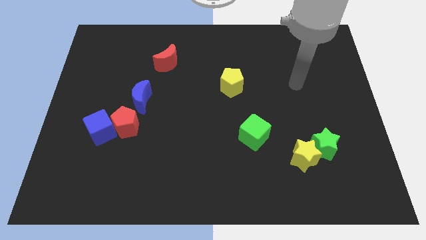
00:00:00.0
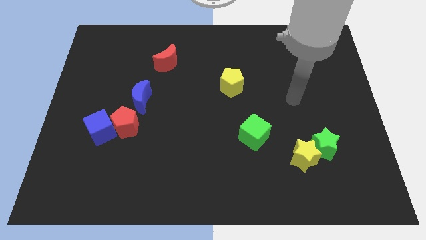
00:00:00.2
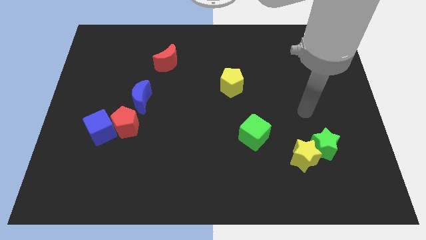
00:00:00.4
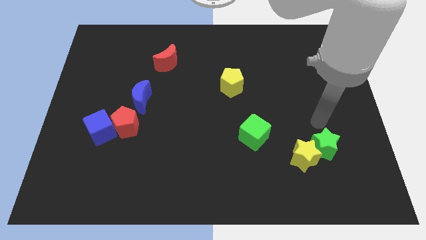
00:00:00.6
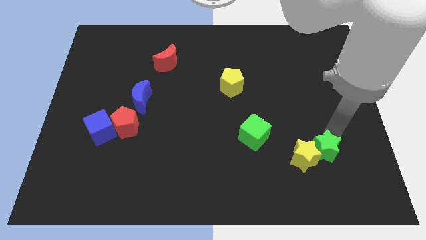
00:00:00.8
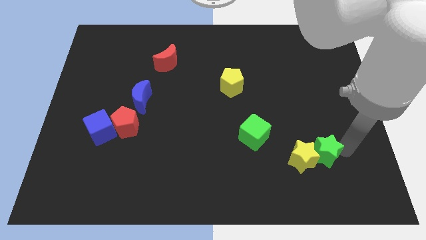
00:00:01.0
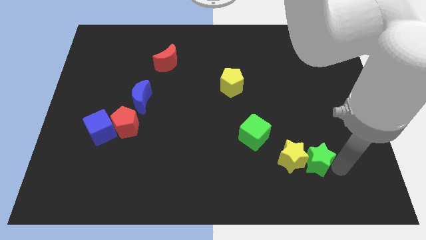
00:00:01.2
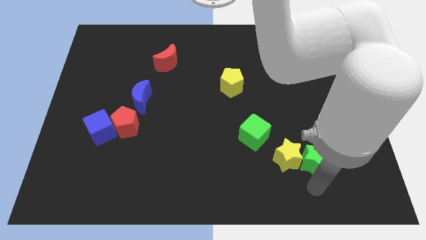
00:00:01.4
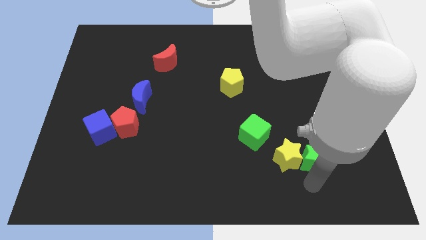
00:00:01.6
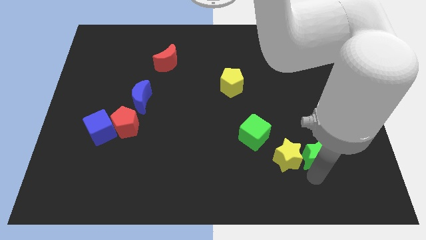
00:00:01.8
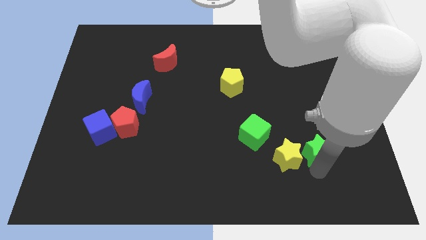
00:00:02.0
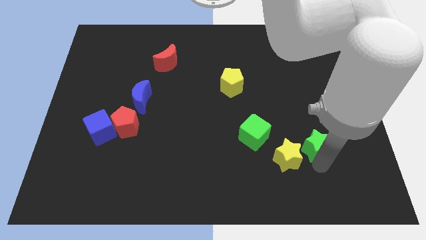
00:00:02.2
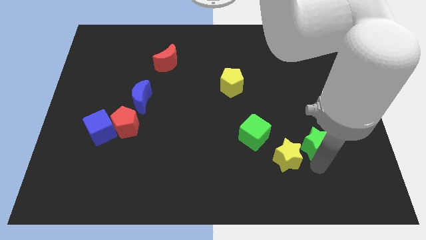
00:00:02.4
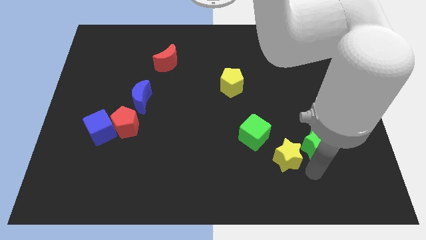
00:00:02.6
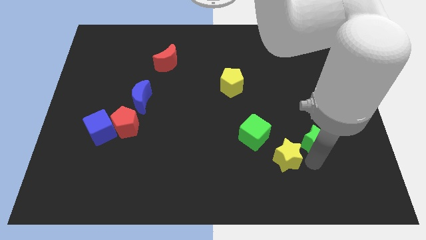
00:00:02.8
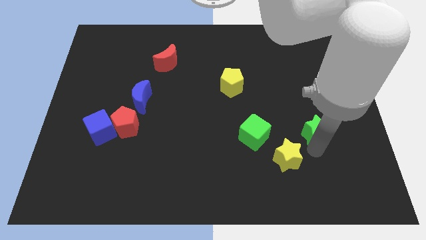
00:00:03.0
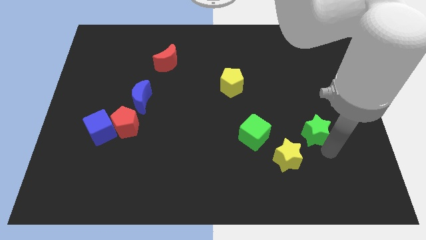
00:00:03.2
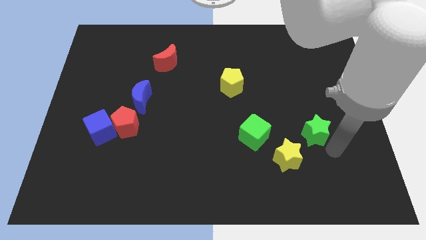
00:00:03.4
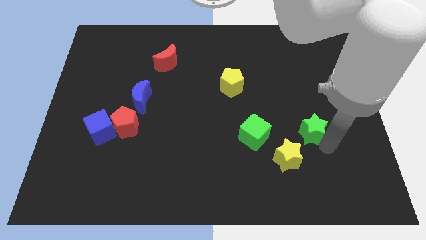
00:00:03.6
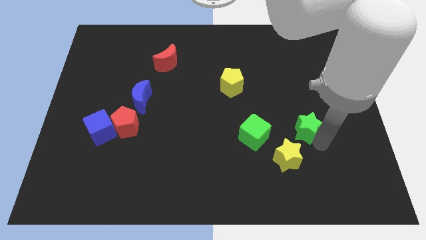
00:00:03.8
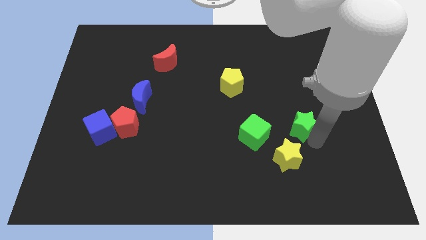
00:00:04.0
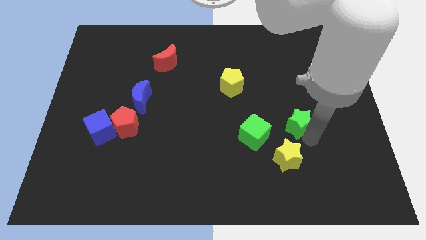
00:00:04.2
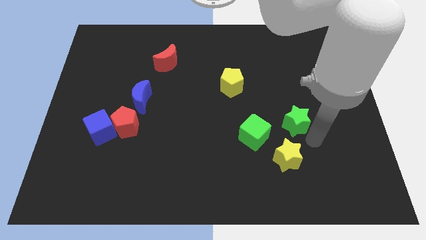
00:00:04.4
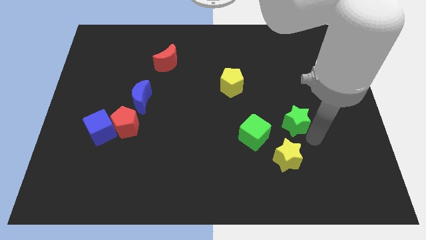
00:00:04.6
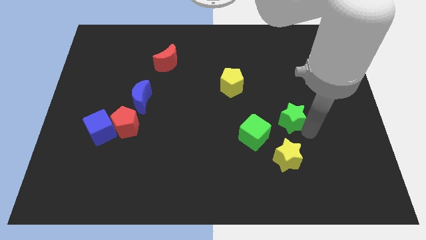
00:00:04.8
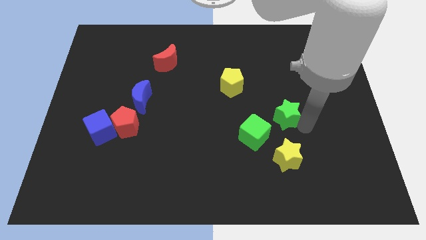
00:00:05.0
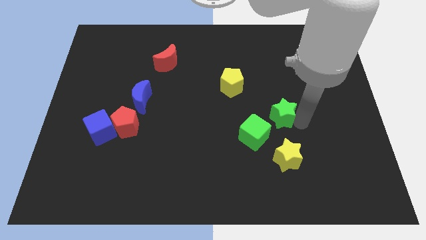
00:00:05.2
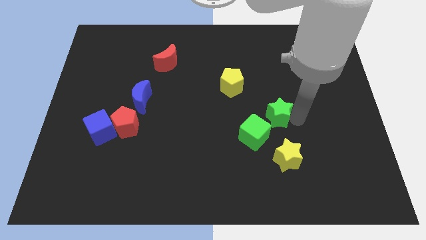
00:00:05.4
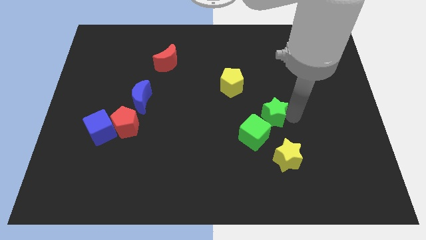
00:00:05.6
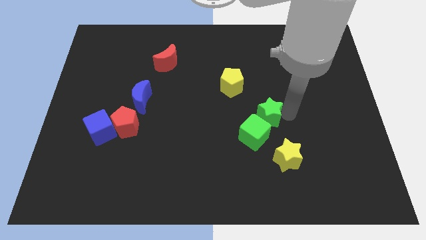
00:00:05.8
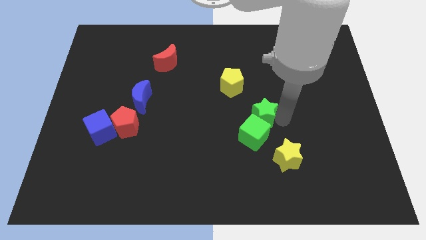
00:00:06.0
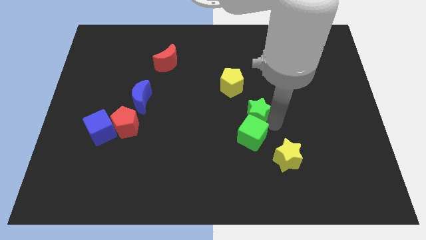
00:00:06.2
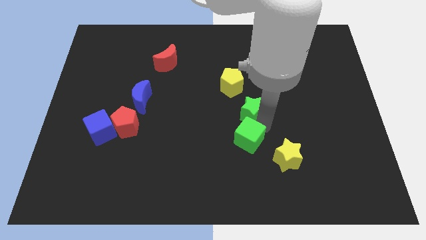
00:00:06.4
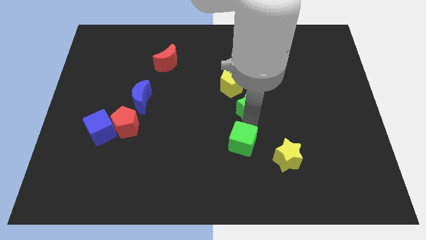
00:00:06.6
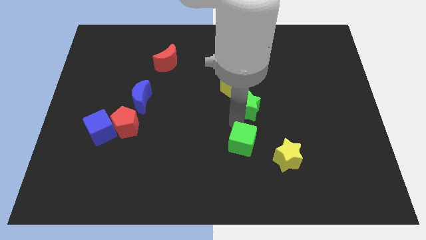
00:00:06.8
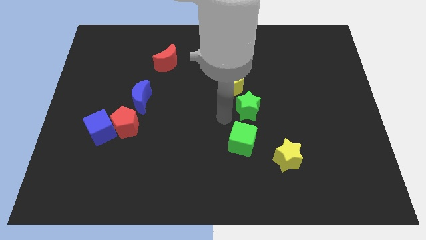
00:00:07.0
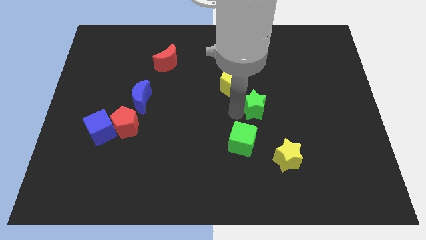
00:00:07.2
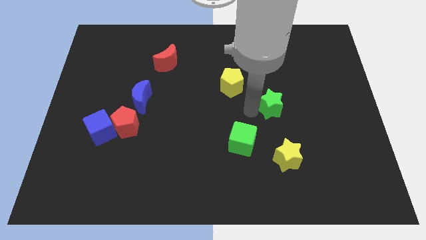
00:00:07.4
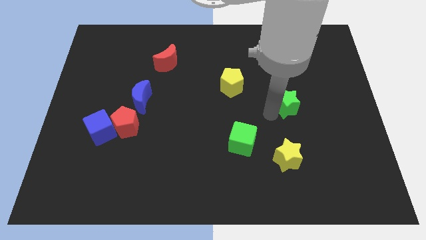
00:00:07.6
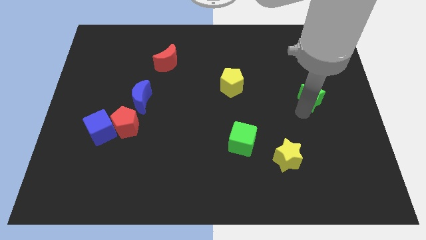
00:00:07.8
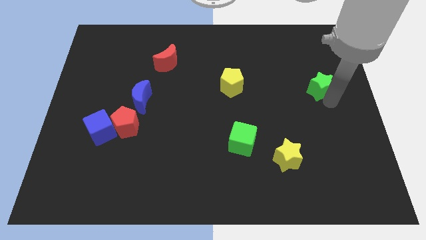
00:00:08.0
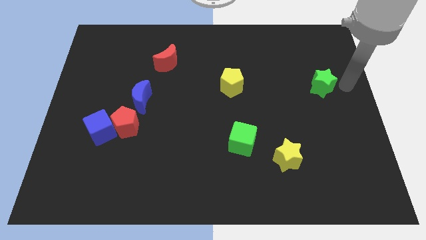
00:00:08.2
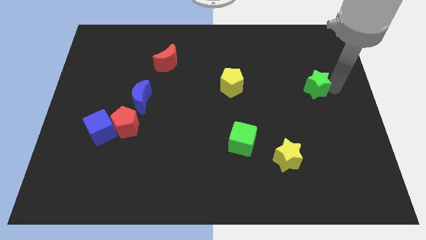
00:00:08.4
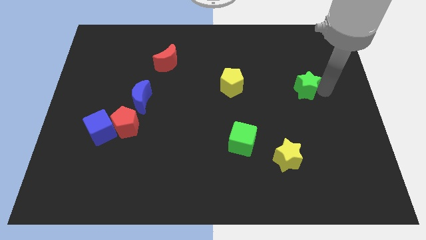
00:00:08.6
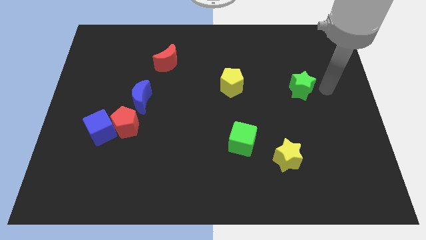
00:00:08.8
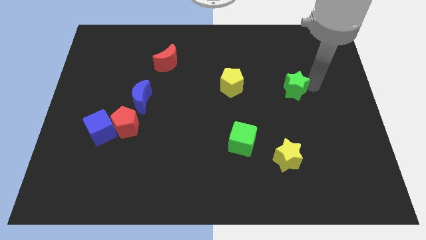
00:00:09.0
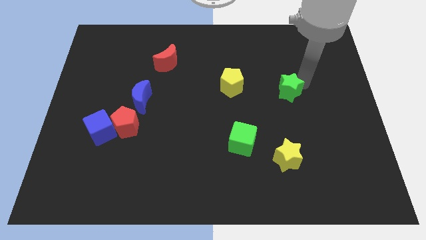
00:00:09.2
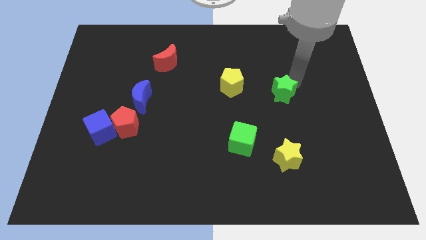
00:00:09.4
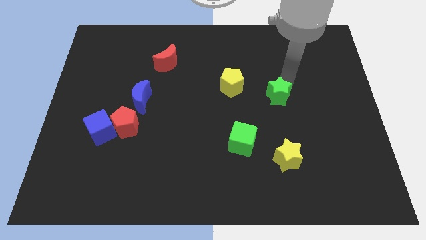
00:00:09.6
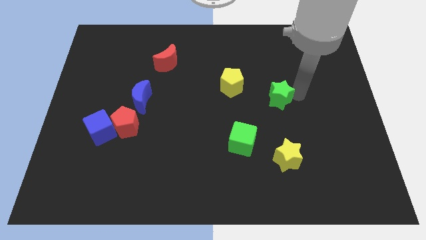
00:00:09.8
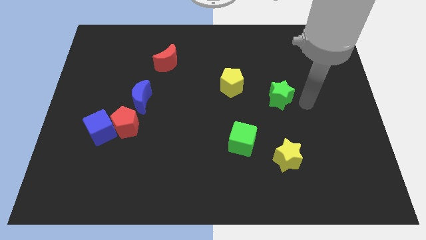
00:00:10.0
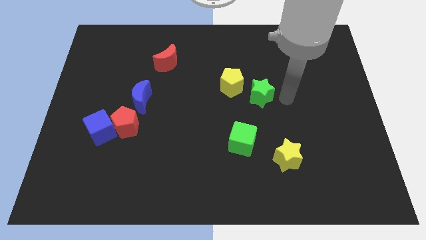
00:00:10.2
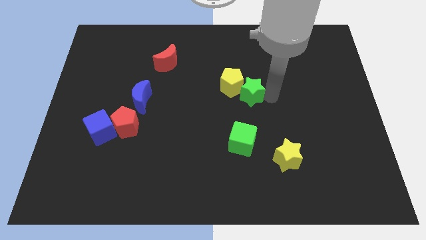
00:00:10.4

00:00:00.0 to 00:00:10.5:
put the green star towards the yellow pentagon

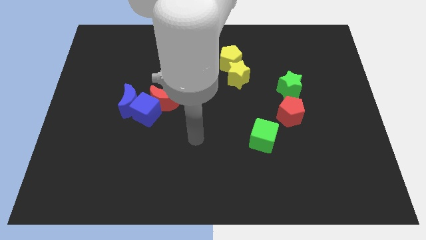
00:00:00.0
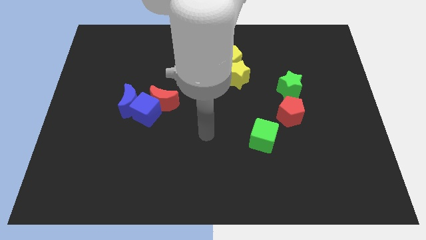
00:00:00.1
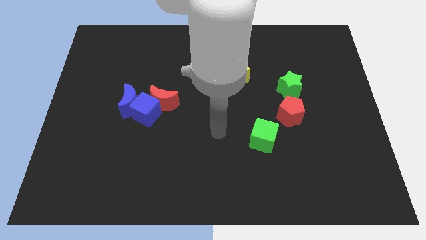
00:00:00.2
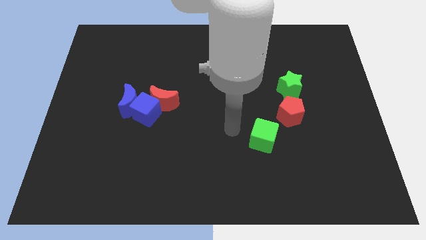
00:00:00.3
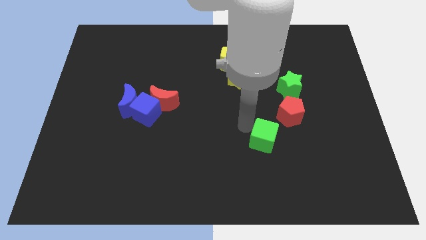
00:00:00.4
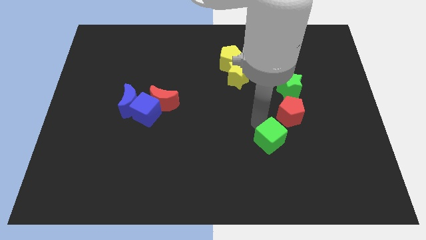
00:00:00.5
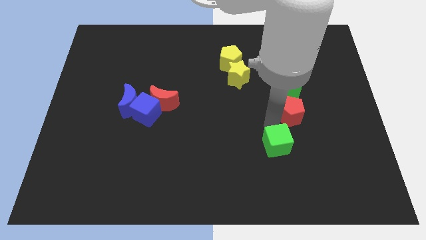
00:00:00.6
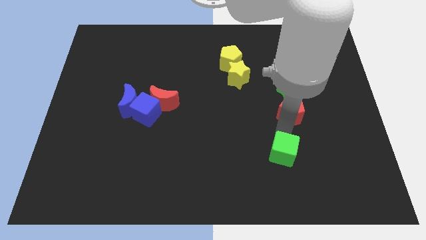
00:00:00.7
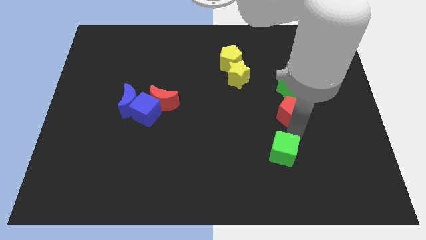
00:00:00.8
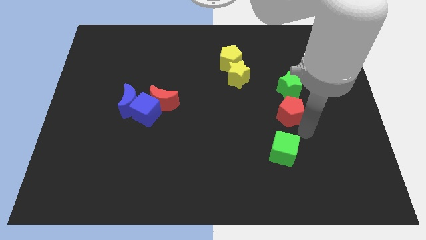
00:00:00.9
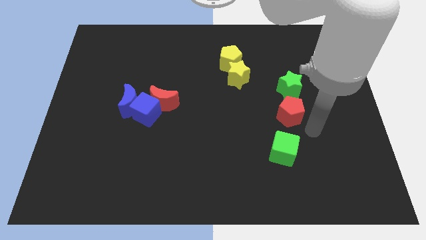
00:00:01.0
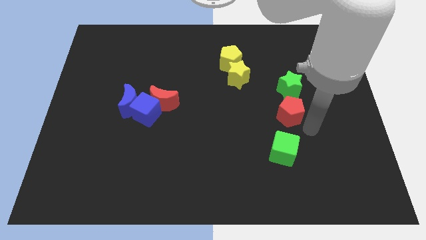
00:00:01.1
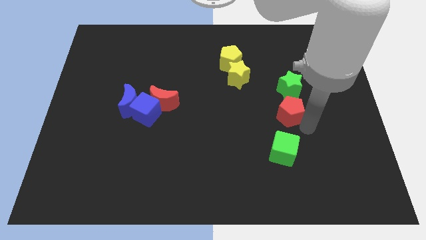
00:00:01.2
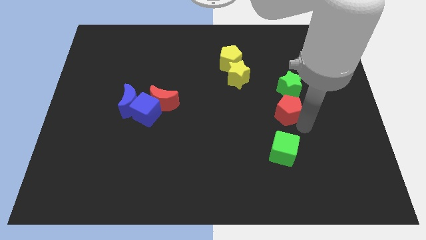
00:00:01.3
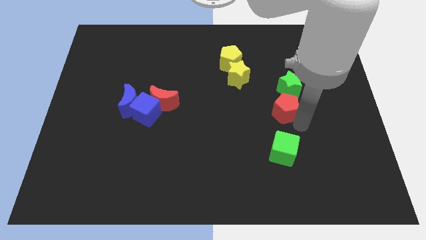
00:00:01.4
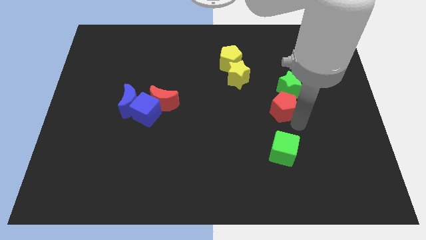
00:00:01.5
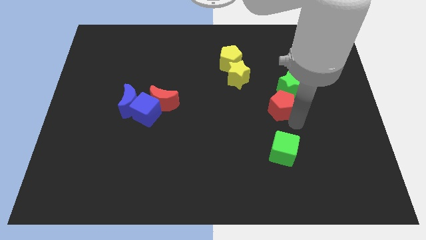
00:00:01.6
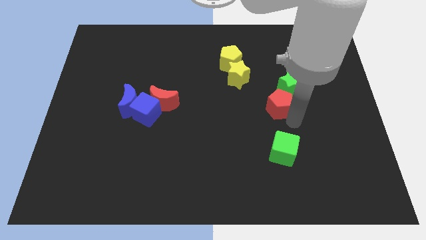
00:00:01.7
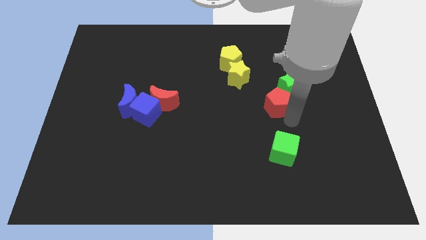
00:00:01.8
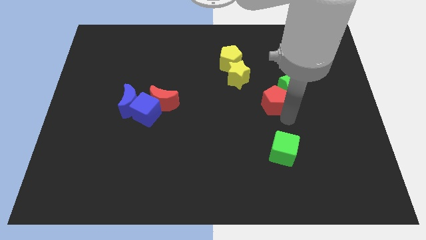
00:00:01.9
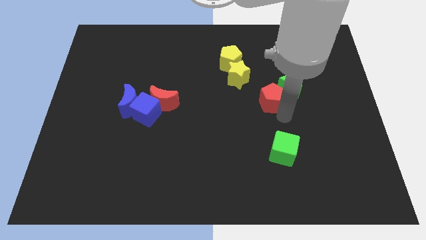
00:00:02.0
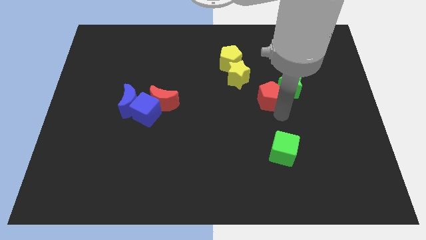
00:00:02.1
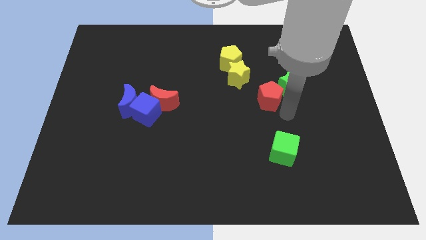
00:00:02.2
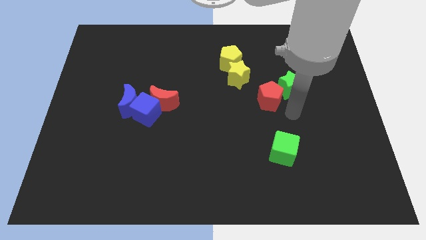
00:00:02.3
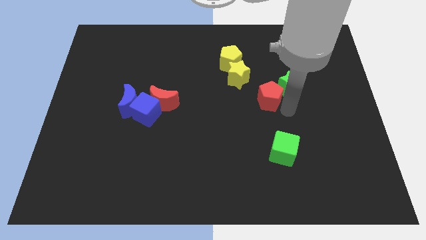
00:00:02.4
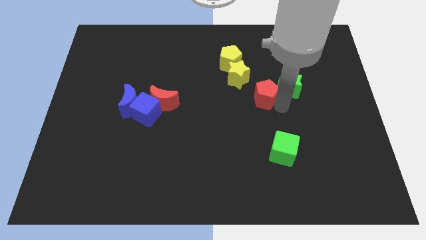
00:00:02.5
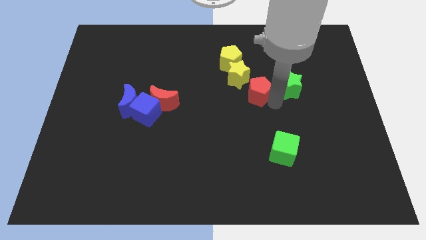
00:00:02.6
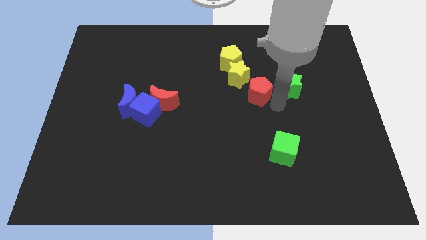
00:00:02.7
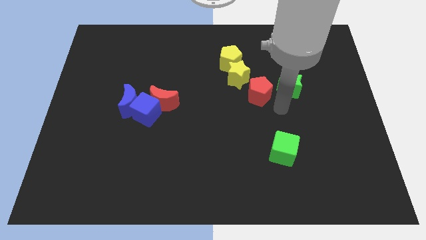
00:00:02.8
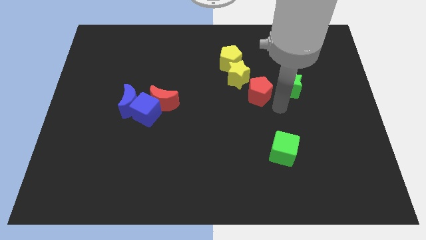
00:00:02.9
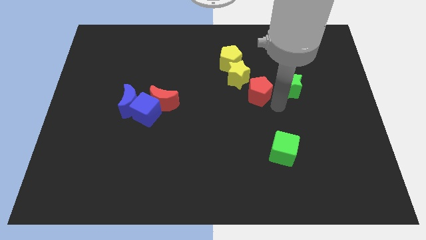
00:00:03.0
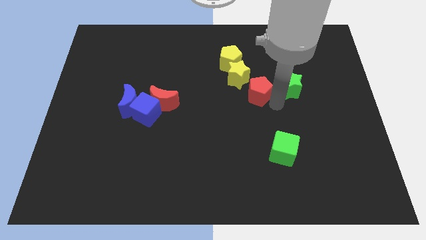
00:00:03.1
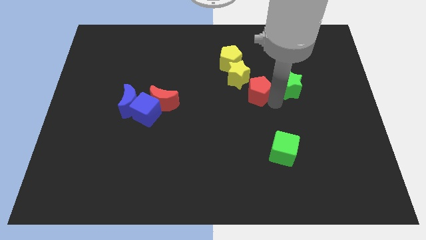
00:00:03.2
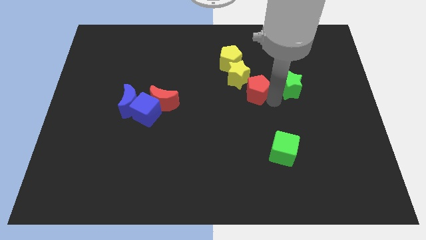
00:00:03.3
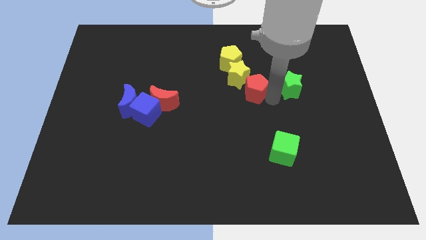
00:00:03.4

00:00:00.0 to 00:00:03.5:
move the red pentagon next to the yellow star
